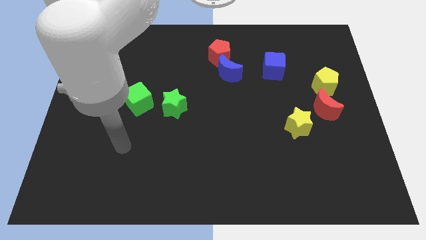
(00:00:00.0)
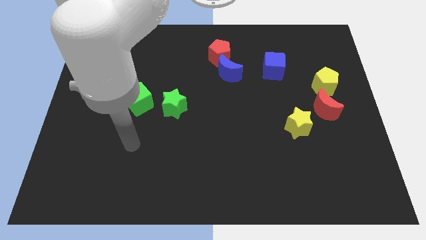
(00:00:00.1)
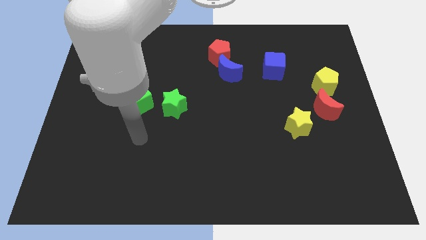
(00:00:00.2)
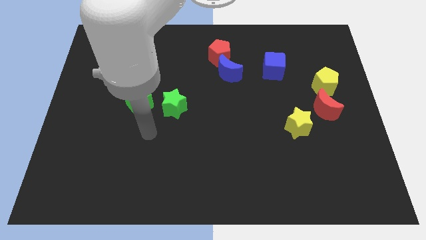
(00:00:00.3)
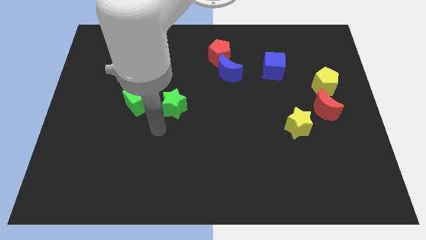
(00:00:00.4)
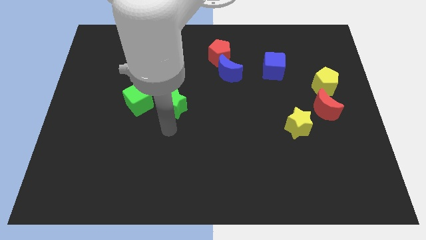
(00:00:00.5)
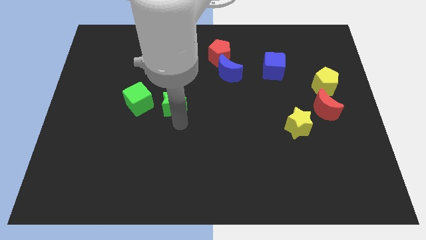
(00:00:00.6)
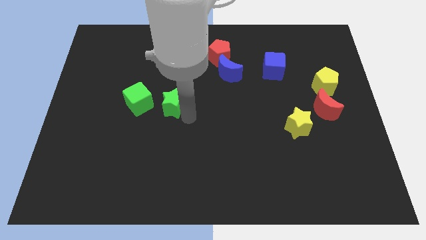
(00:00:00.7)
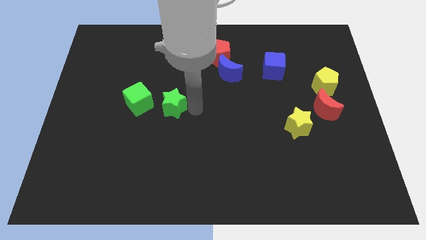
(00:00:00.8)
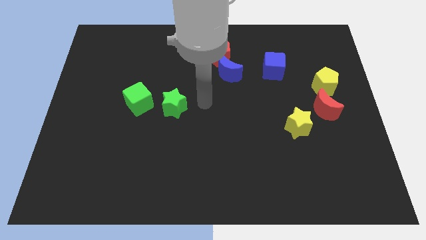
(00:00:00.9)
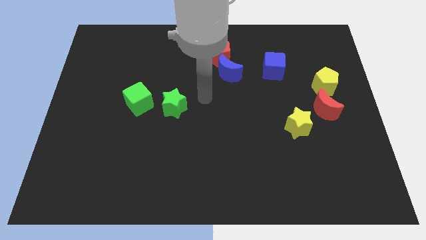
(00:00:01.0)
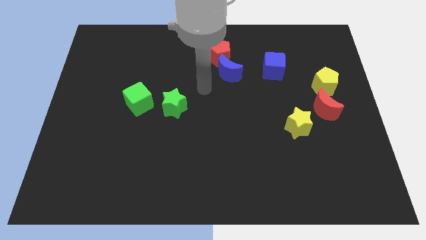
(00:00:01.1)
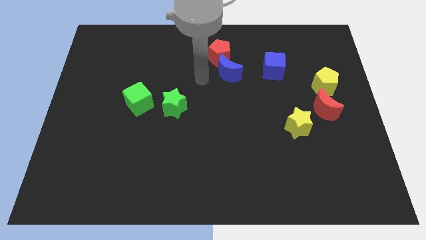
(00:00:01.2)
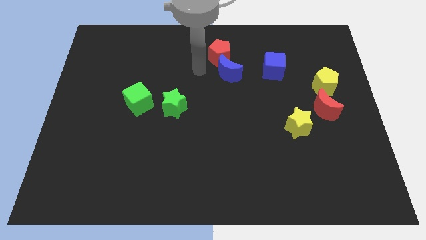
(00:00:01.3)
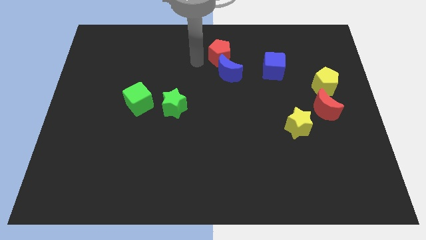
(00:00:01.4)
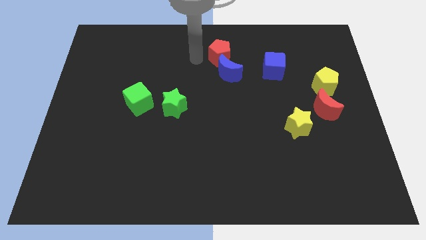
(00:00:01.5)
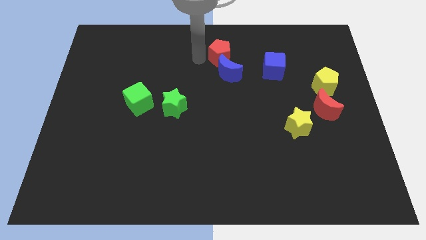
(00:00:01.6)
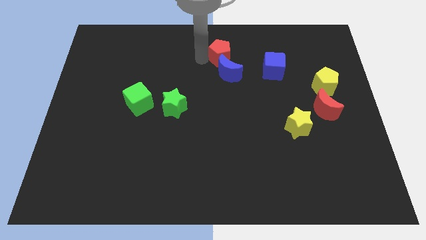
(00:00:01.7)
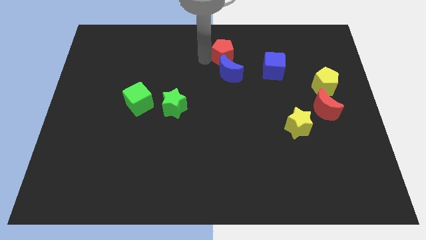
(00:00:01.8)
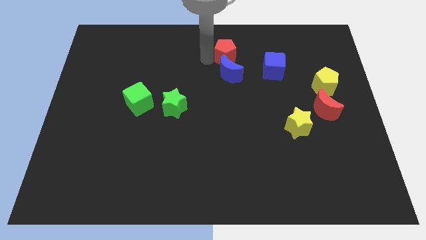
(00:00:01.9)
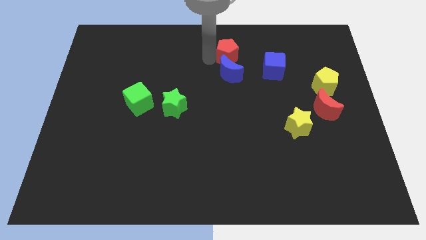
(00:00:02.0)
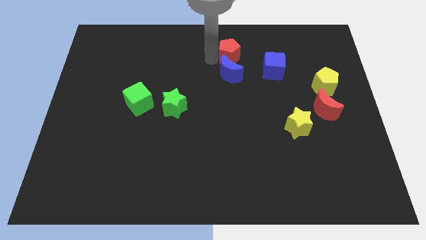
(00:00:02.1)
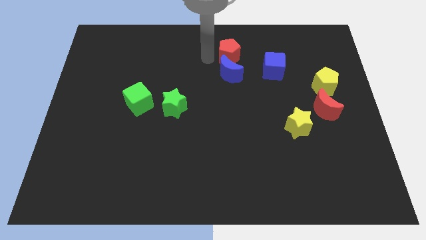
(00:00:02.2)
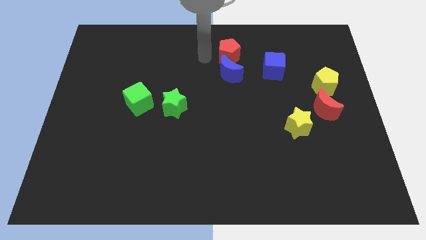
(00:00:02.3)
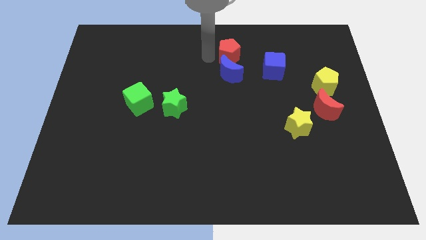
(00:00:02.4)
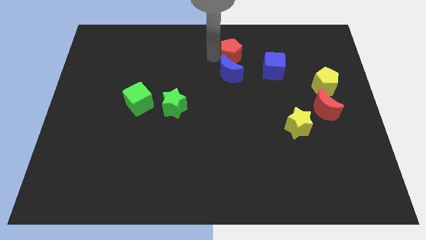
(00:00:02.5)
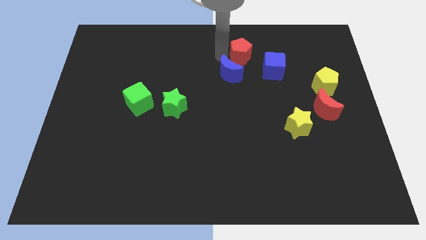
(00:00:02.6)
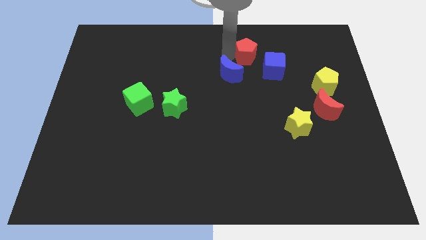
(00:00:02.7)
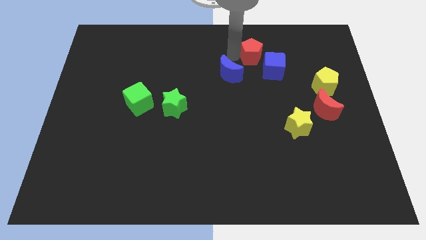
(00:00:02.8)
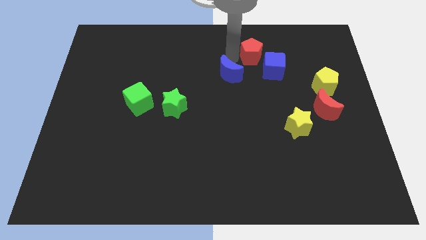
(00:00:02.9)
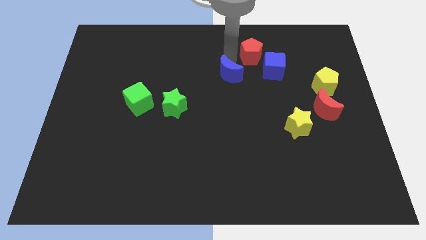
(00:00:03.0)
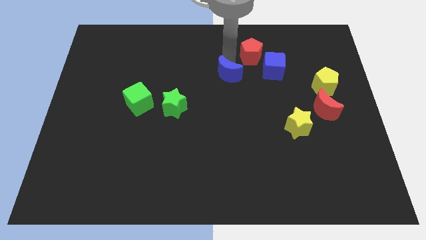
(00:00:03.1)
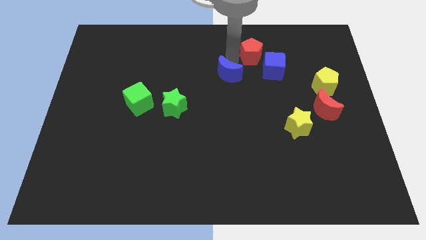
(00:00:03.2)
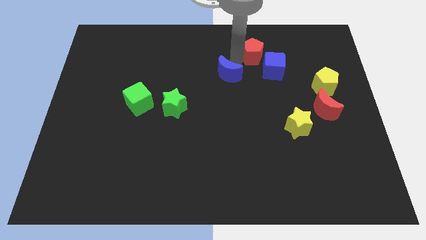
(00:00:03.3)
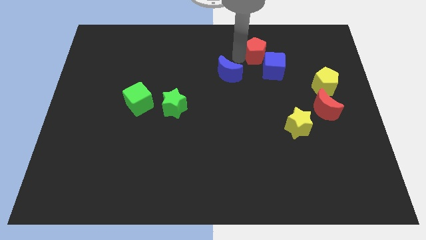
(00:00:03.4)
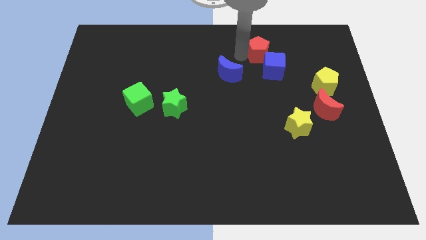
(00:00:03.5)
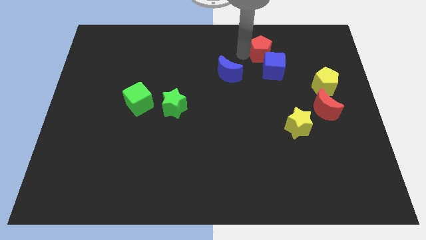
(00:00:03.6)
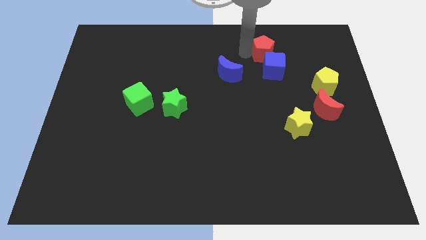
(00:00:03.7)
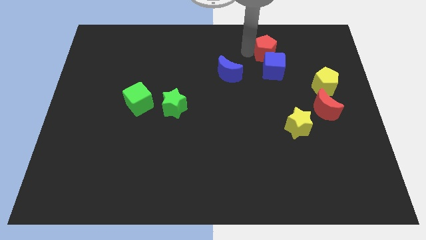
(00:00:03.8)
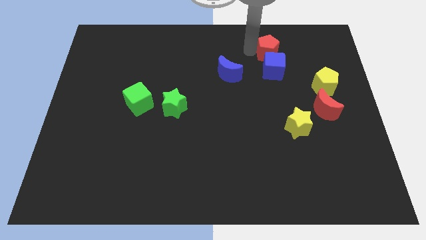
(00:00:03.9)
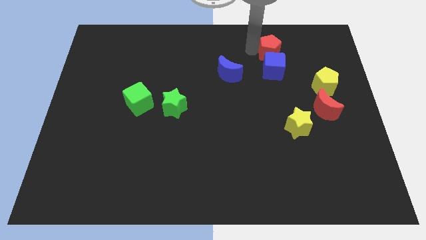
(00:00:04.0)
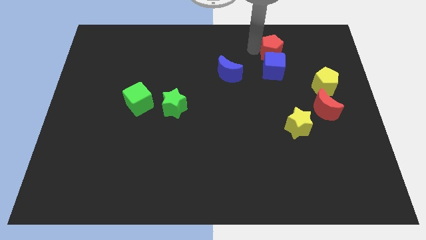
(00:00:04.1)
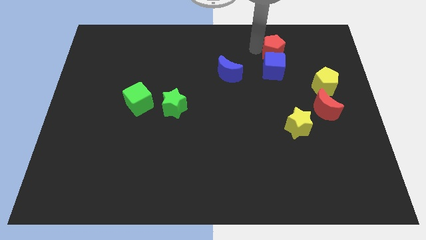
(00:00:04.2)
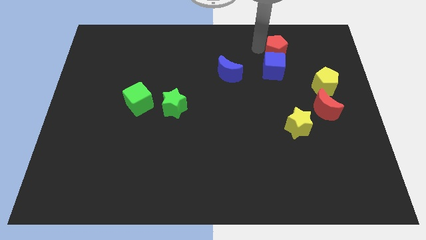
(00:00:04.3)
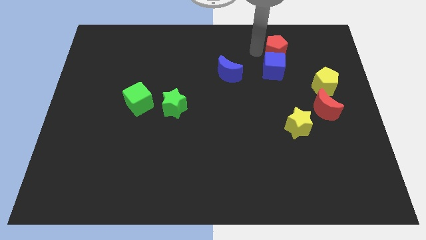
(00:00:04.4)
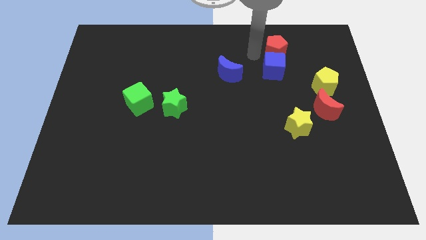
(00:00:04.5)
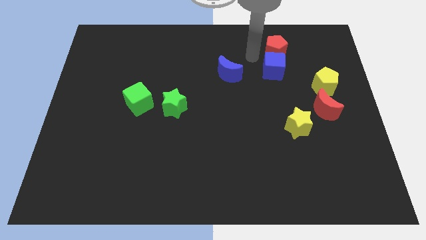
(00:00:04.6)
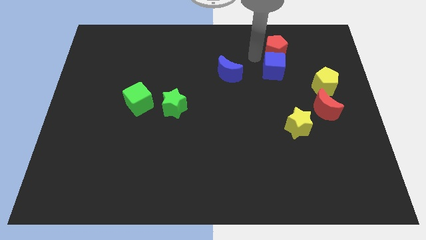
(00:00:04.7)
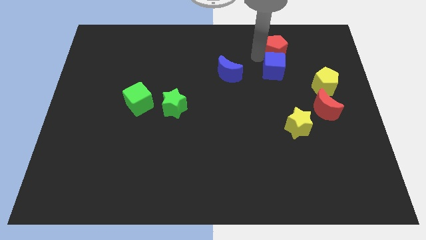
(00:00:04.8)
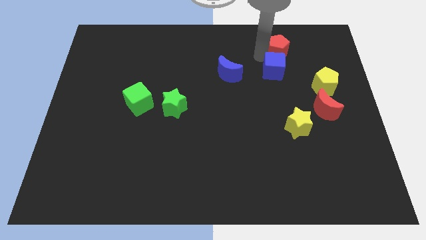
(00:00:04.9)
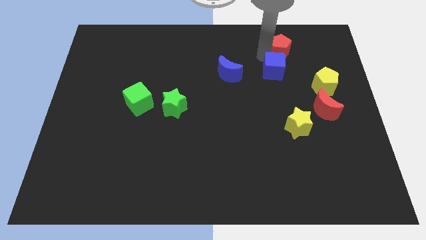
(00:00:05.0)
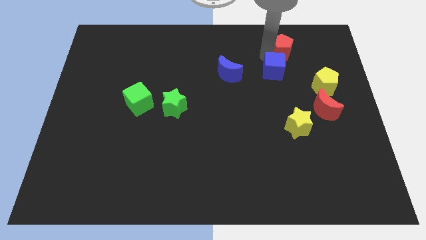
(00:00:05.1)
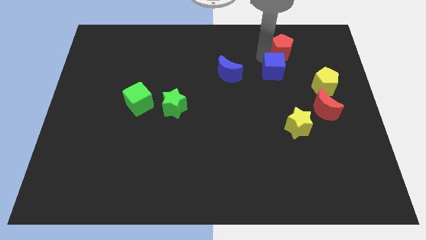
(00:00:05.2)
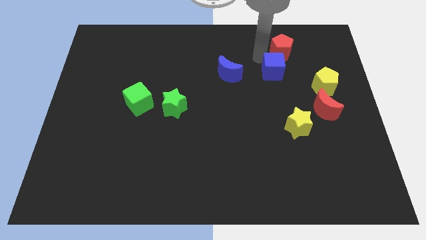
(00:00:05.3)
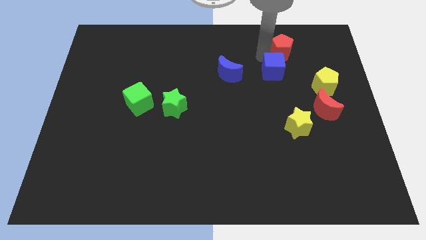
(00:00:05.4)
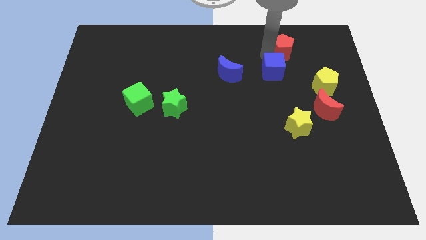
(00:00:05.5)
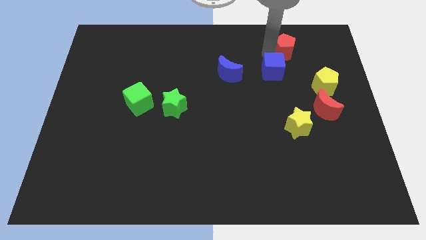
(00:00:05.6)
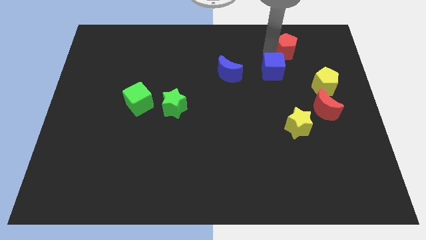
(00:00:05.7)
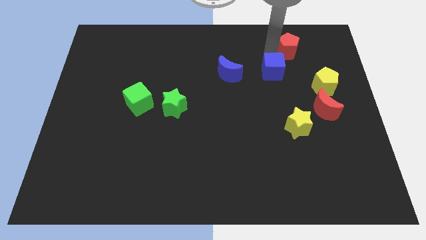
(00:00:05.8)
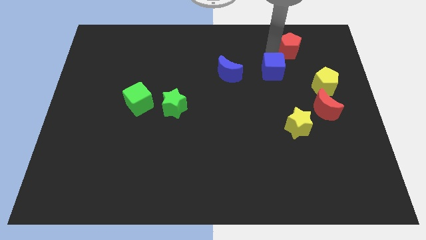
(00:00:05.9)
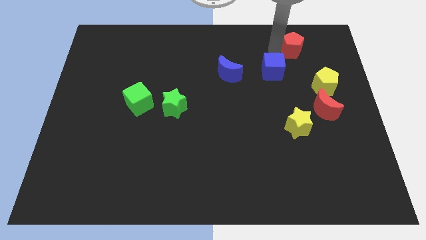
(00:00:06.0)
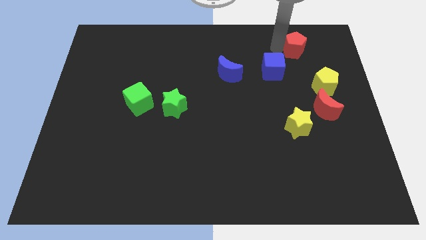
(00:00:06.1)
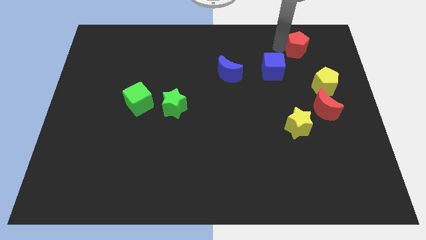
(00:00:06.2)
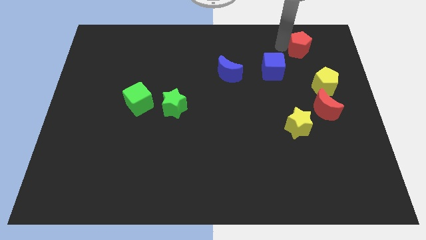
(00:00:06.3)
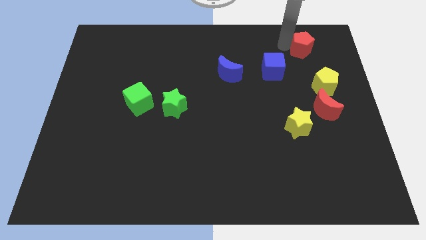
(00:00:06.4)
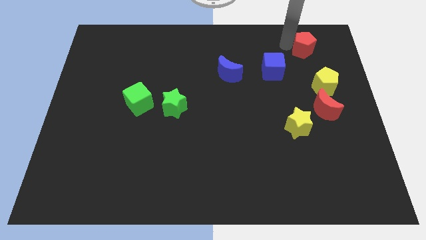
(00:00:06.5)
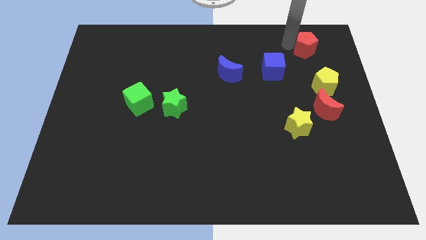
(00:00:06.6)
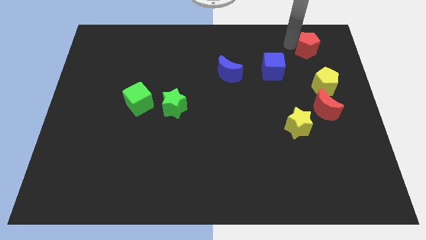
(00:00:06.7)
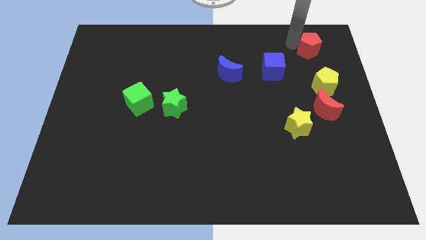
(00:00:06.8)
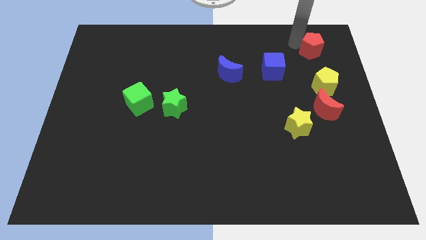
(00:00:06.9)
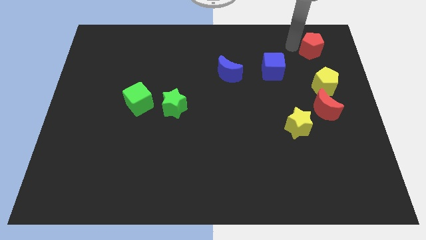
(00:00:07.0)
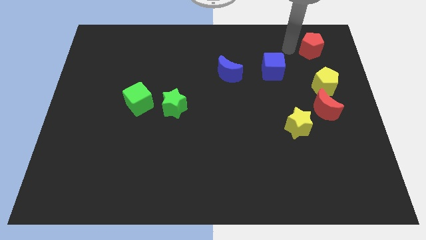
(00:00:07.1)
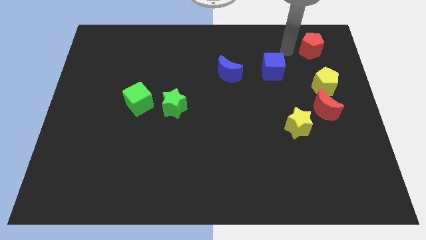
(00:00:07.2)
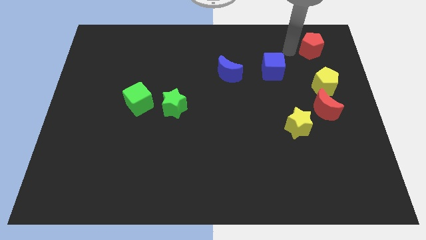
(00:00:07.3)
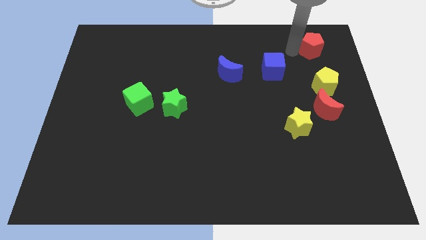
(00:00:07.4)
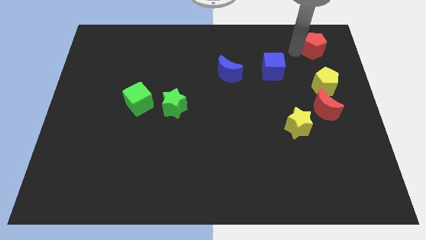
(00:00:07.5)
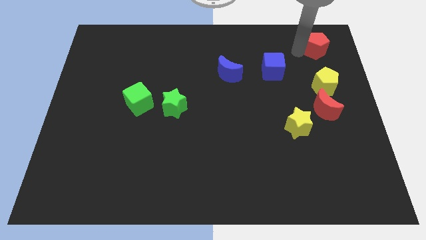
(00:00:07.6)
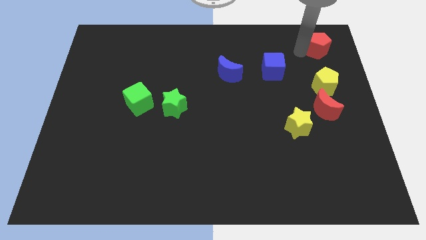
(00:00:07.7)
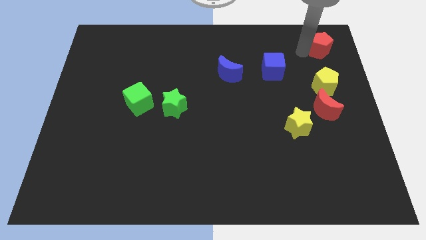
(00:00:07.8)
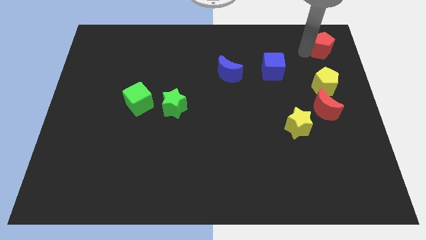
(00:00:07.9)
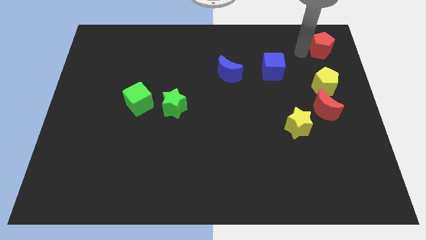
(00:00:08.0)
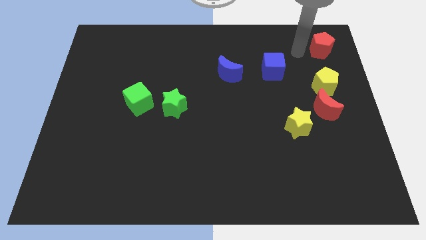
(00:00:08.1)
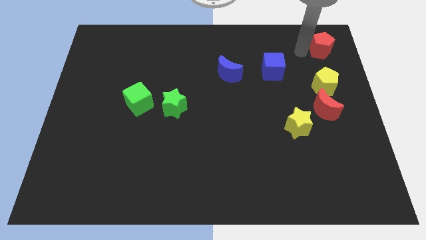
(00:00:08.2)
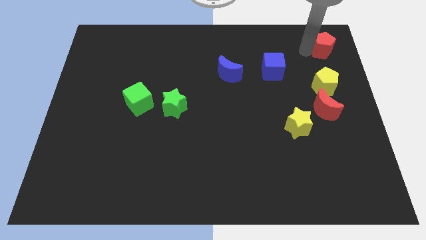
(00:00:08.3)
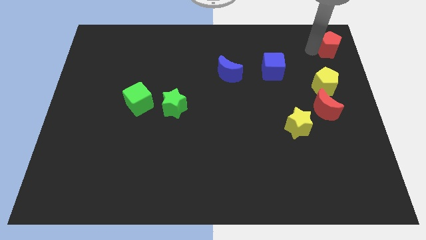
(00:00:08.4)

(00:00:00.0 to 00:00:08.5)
put the red pentagon to the upper right corner
